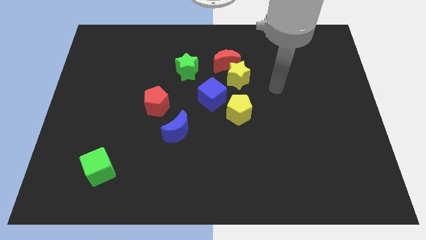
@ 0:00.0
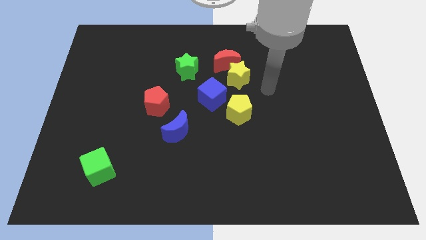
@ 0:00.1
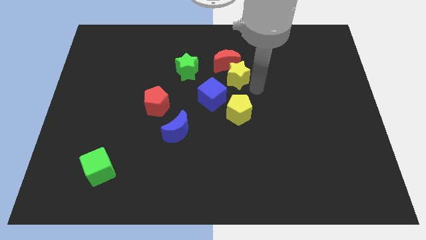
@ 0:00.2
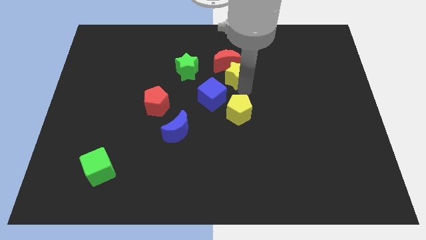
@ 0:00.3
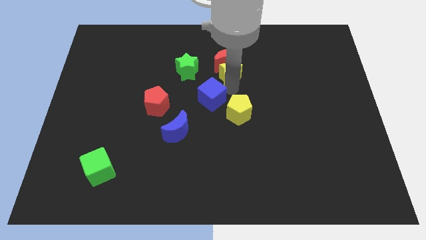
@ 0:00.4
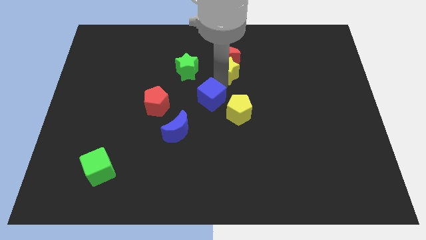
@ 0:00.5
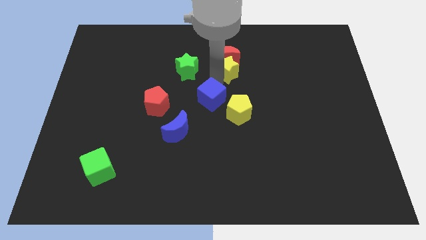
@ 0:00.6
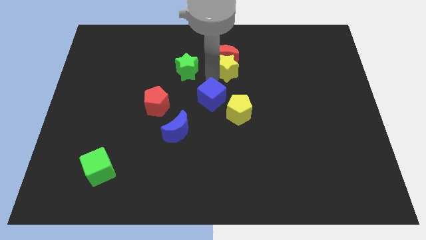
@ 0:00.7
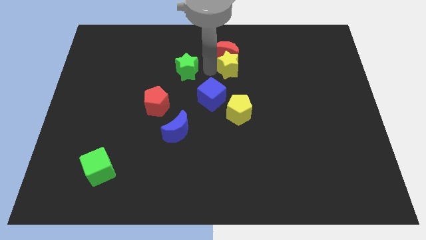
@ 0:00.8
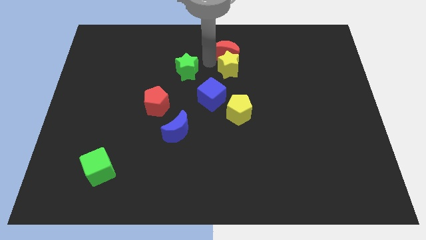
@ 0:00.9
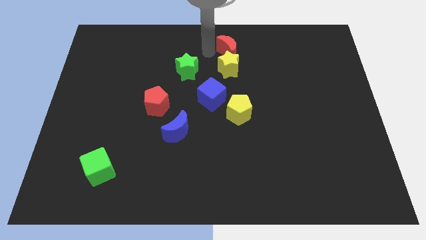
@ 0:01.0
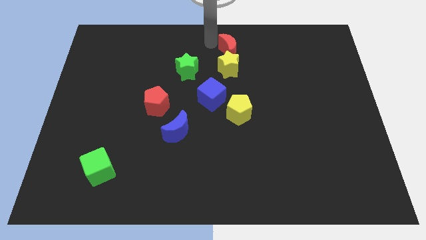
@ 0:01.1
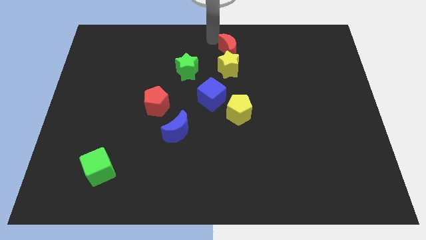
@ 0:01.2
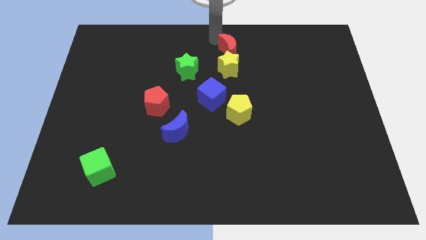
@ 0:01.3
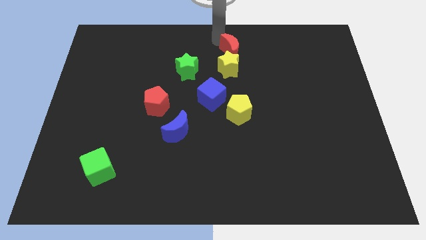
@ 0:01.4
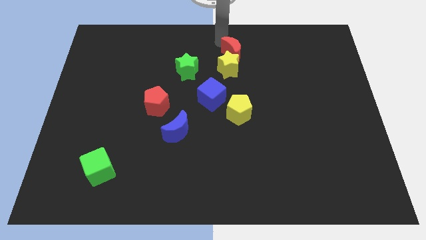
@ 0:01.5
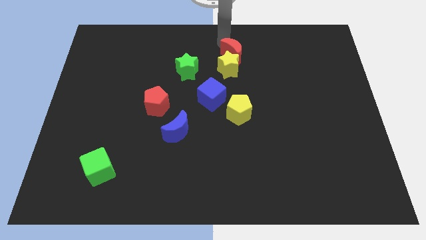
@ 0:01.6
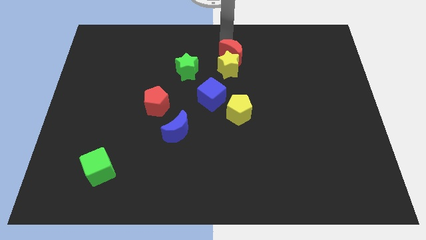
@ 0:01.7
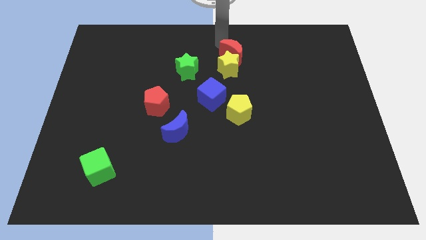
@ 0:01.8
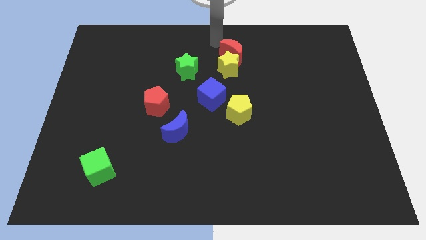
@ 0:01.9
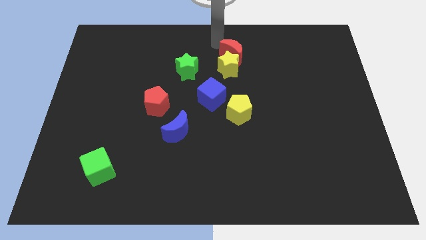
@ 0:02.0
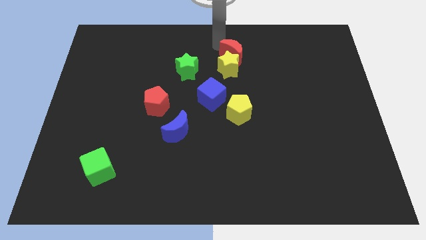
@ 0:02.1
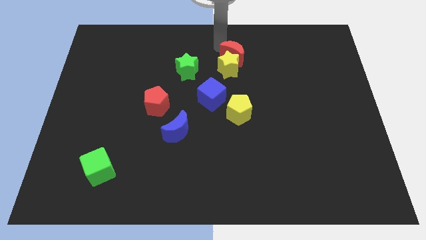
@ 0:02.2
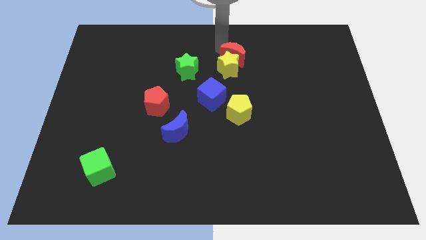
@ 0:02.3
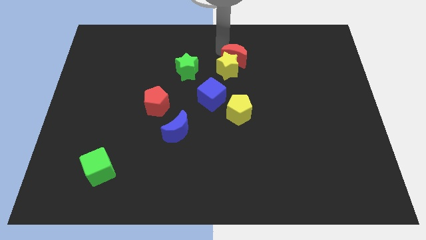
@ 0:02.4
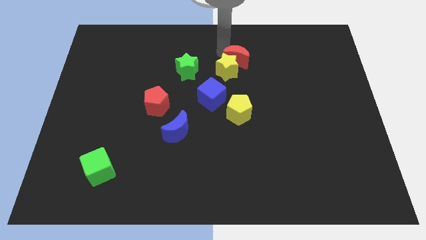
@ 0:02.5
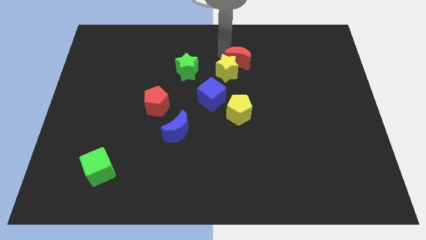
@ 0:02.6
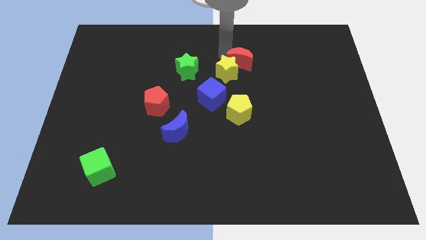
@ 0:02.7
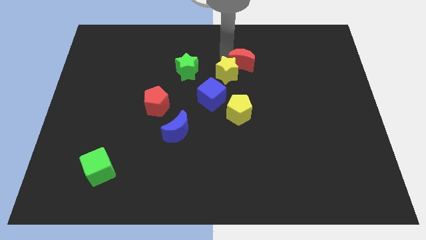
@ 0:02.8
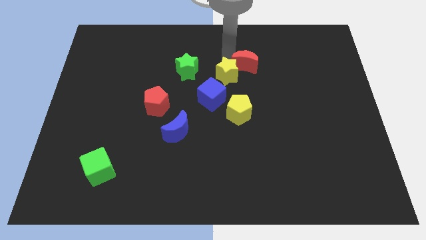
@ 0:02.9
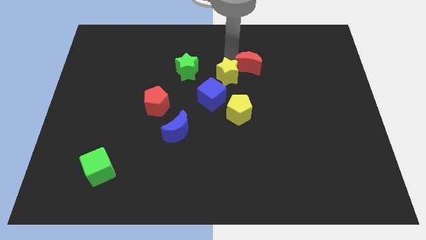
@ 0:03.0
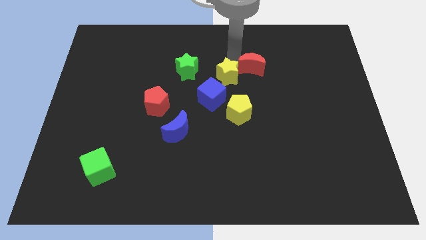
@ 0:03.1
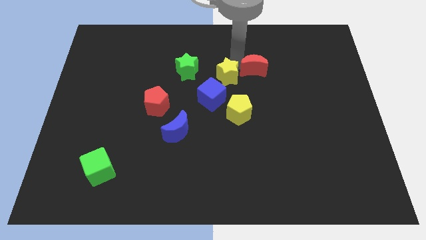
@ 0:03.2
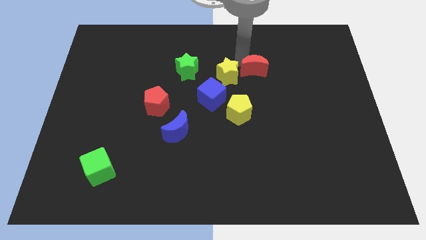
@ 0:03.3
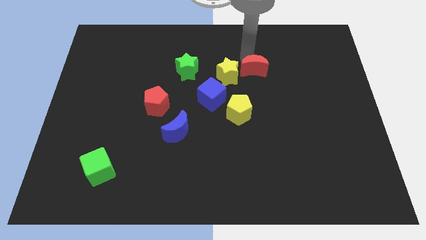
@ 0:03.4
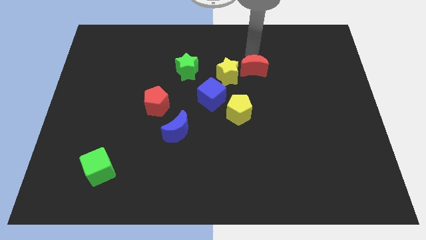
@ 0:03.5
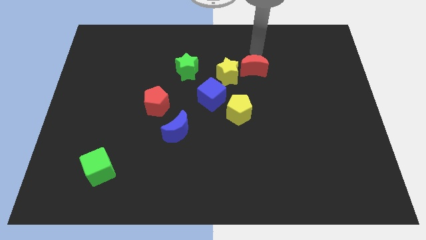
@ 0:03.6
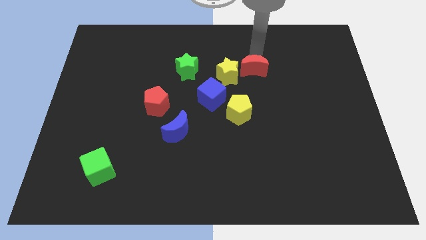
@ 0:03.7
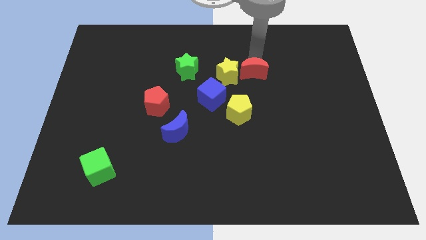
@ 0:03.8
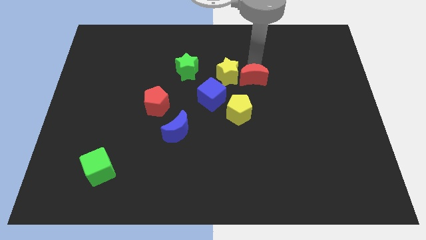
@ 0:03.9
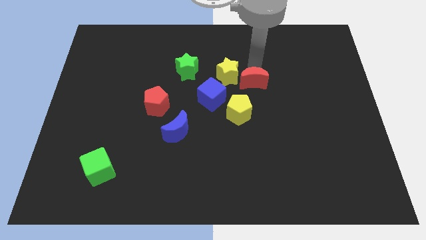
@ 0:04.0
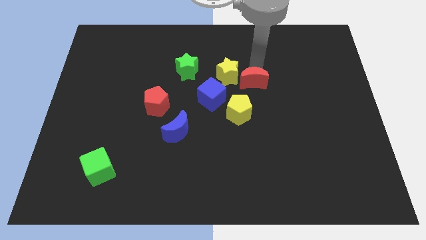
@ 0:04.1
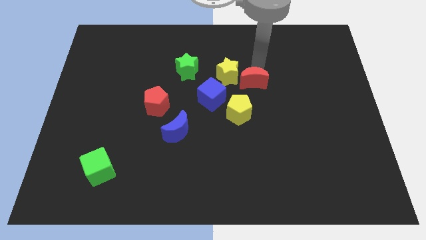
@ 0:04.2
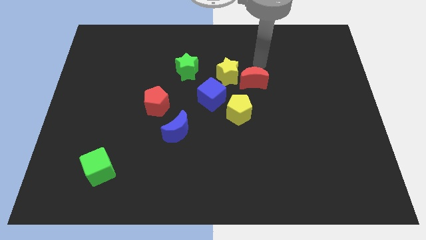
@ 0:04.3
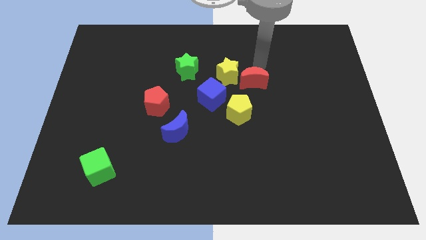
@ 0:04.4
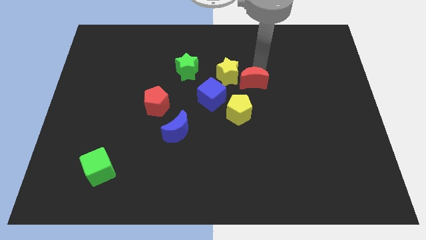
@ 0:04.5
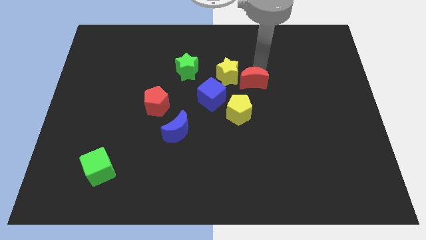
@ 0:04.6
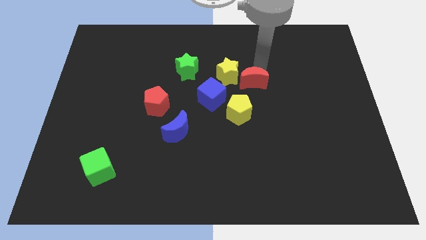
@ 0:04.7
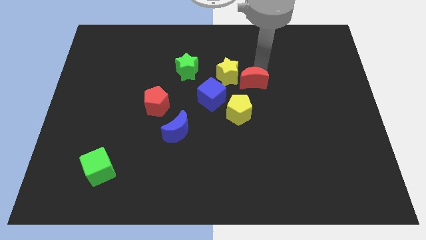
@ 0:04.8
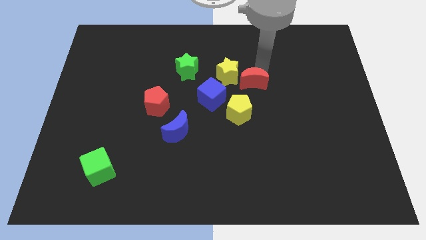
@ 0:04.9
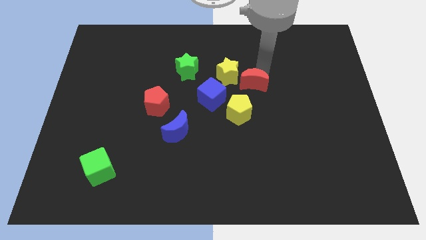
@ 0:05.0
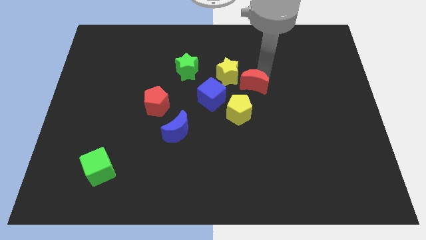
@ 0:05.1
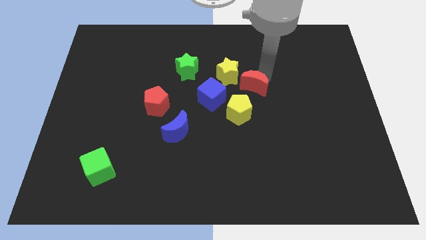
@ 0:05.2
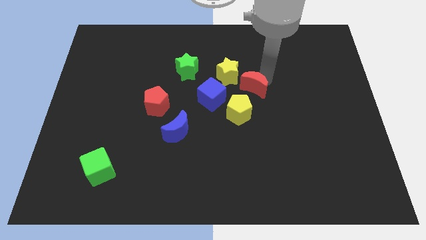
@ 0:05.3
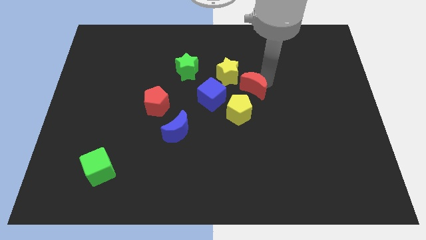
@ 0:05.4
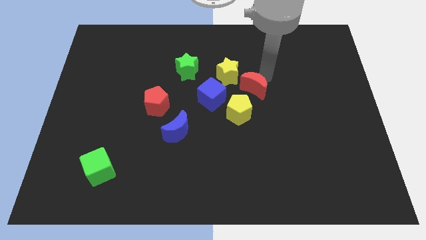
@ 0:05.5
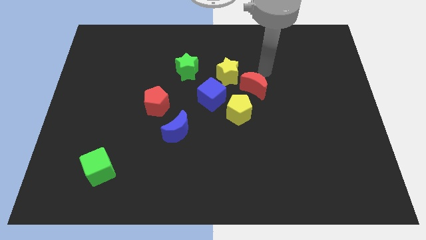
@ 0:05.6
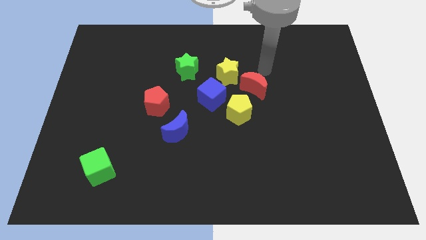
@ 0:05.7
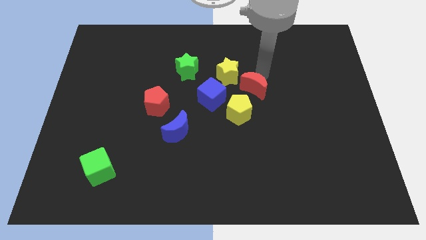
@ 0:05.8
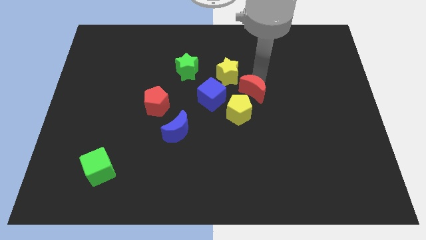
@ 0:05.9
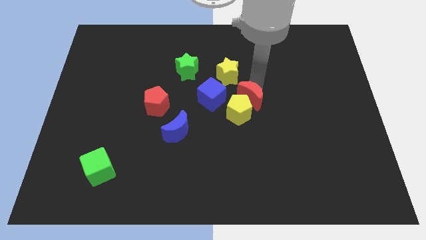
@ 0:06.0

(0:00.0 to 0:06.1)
put the red moon to the yellow pentagon

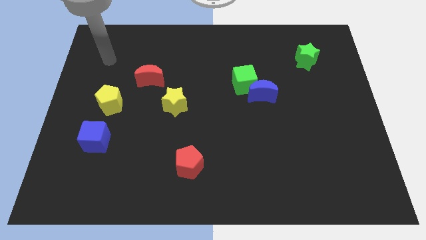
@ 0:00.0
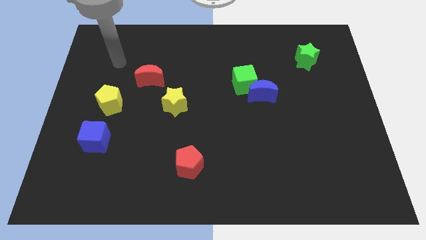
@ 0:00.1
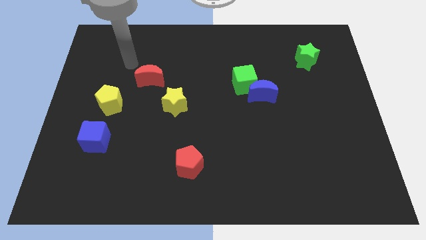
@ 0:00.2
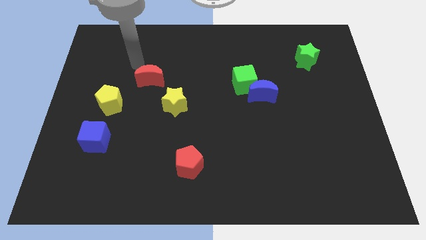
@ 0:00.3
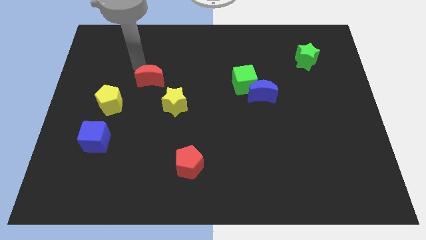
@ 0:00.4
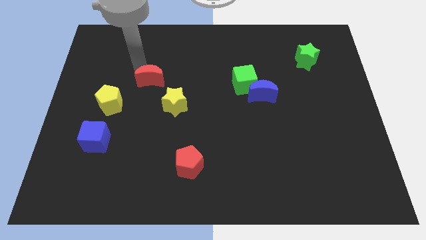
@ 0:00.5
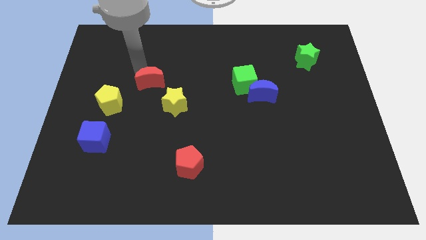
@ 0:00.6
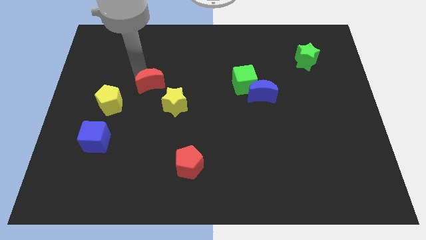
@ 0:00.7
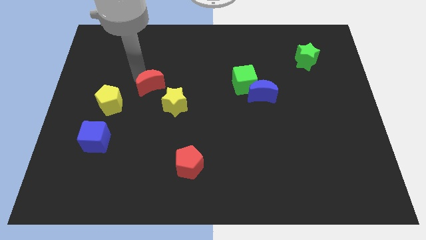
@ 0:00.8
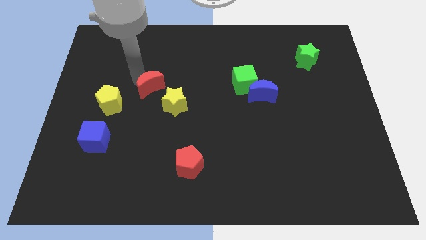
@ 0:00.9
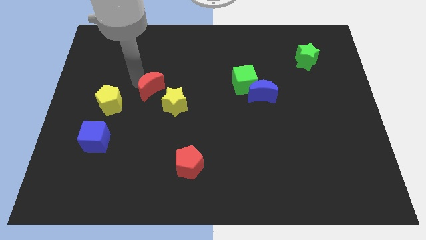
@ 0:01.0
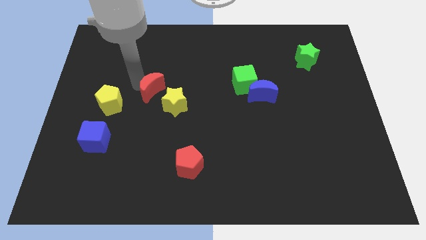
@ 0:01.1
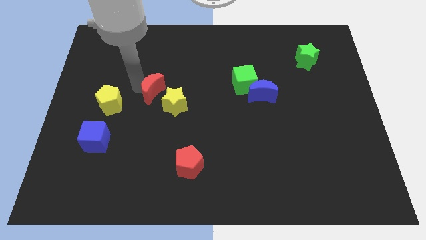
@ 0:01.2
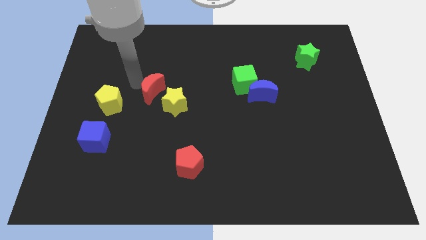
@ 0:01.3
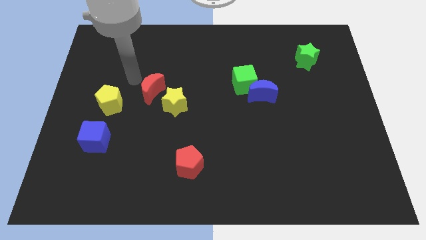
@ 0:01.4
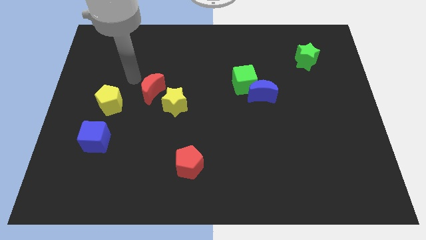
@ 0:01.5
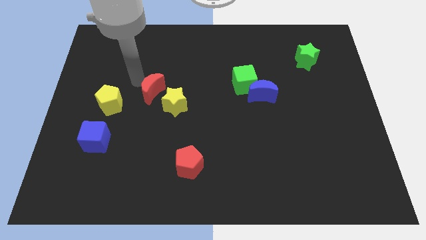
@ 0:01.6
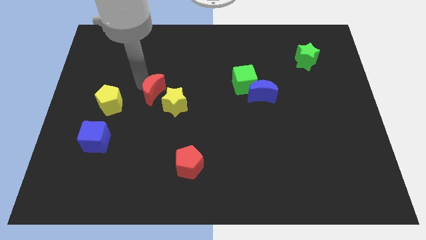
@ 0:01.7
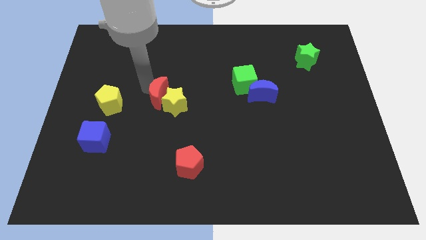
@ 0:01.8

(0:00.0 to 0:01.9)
slide the red moon towards the yellow star
